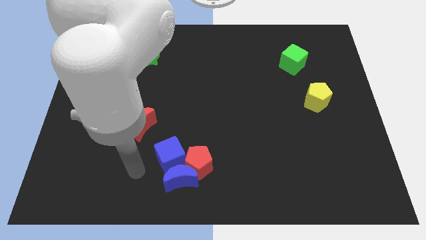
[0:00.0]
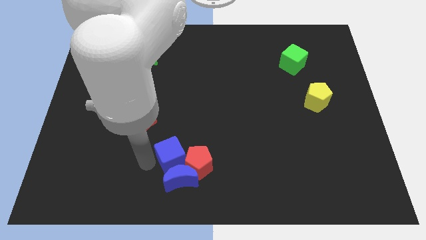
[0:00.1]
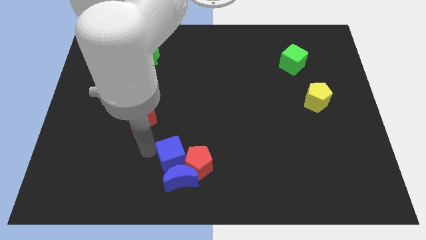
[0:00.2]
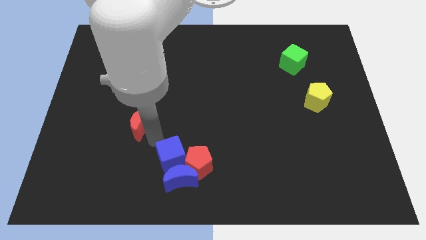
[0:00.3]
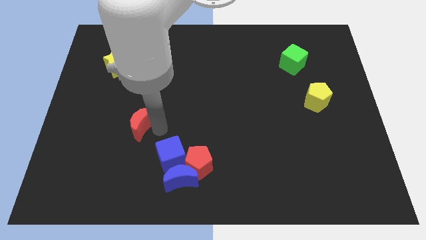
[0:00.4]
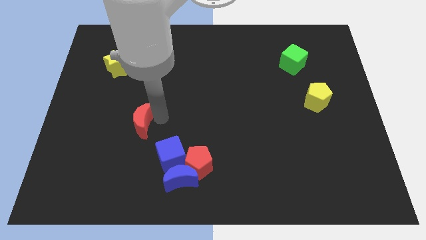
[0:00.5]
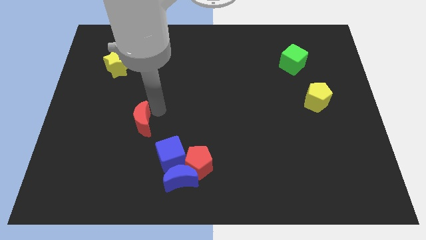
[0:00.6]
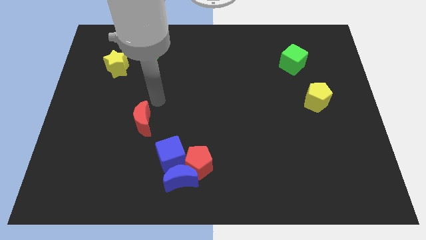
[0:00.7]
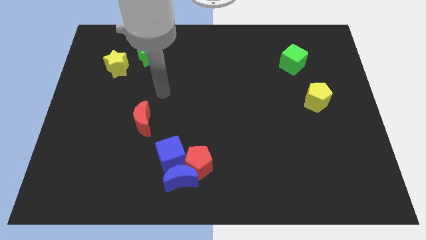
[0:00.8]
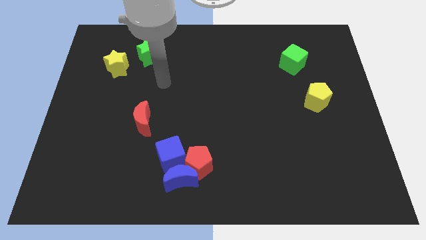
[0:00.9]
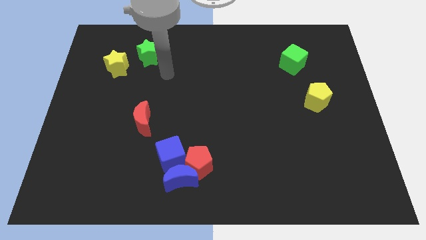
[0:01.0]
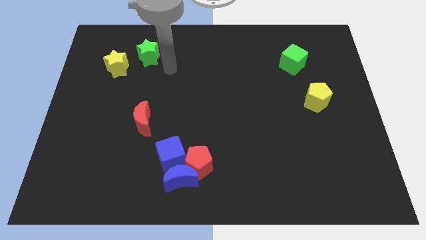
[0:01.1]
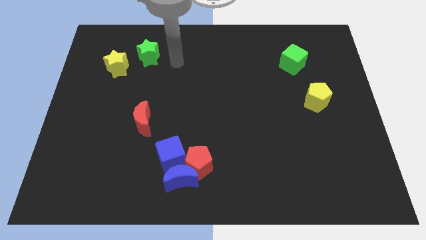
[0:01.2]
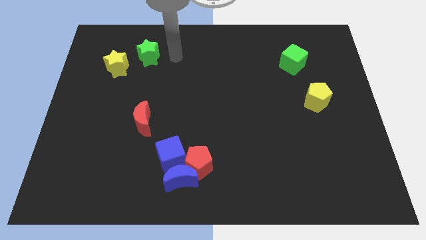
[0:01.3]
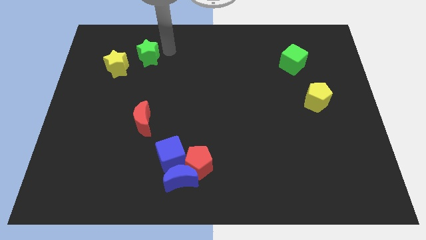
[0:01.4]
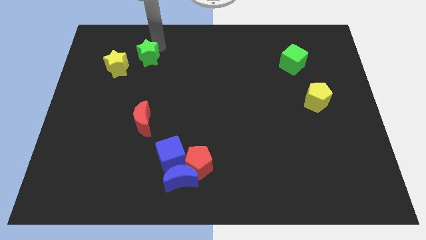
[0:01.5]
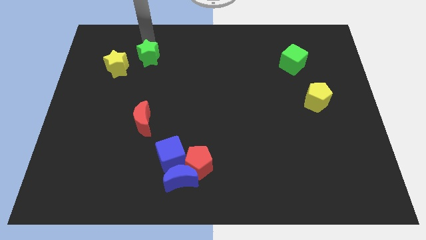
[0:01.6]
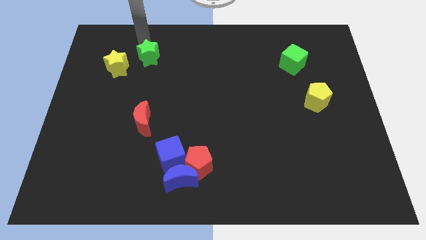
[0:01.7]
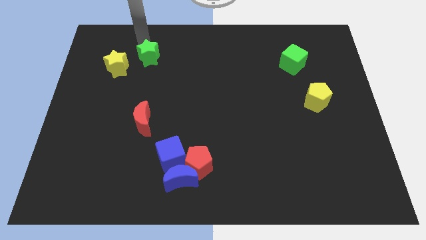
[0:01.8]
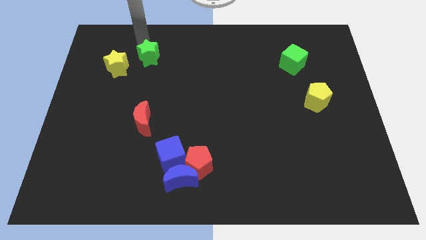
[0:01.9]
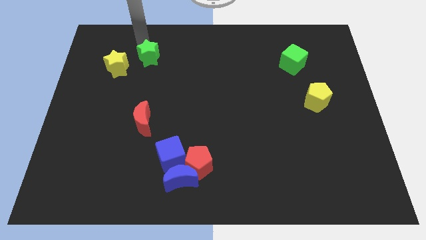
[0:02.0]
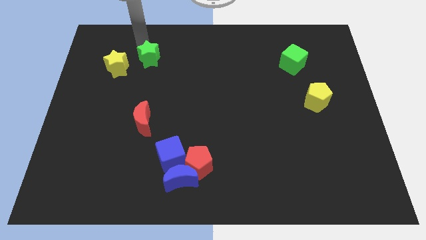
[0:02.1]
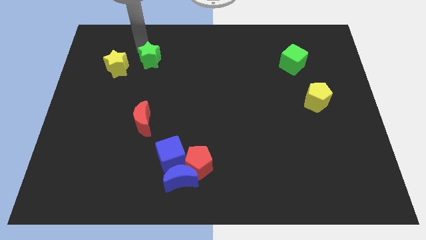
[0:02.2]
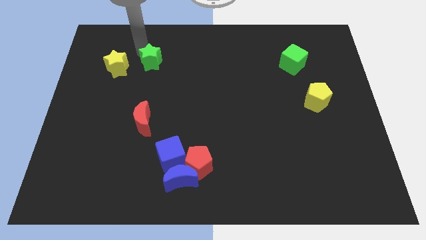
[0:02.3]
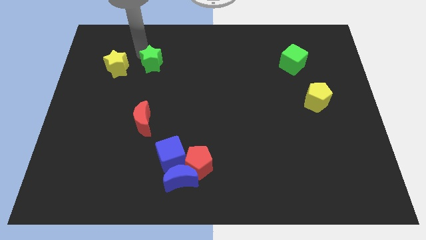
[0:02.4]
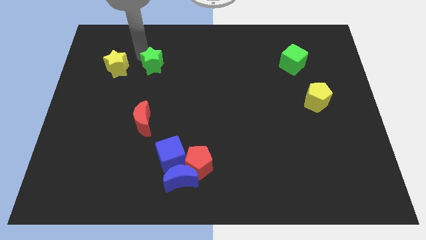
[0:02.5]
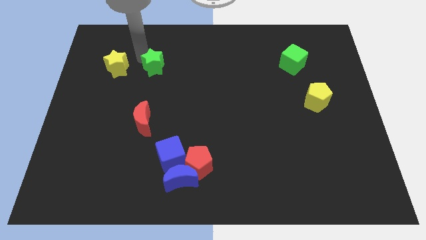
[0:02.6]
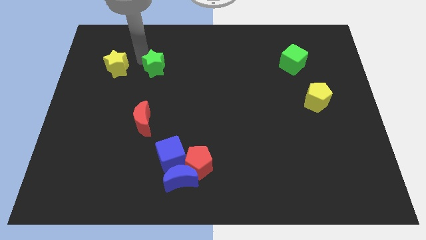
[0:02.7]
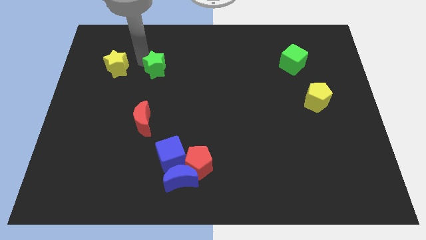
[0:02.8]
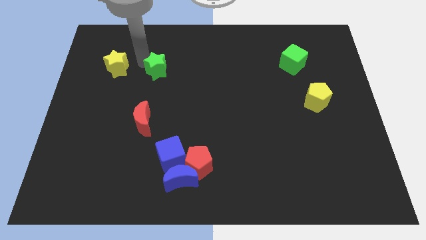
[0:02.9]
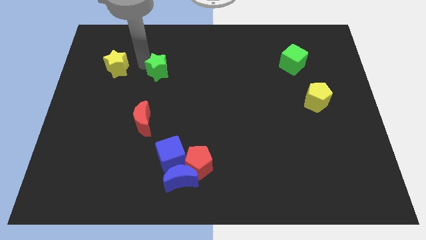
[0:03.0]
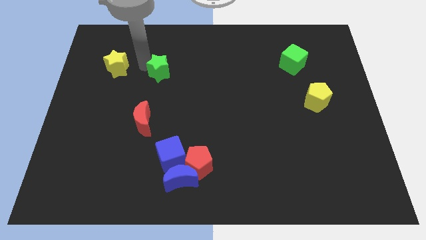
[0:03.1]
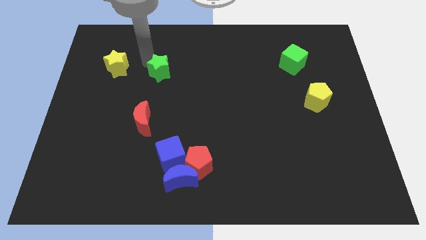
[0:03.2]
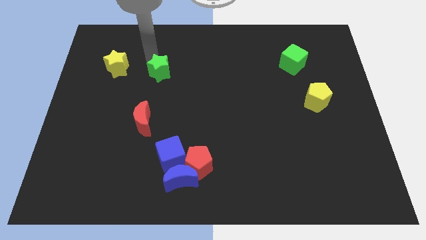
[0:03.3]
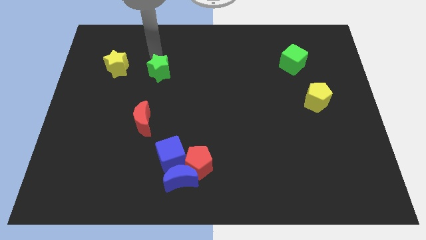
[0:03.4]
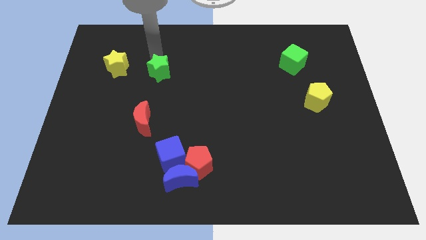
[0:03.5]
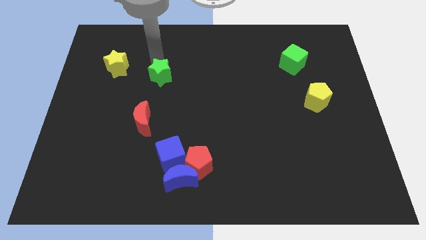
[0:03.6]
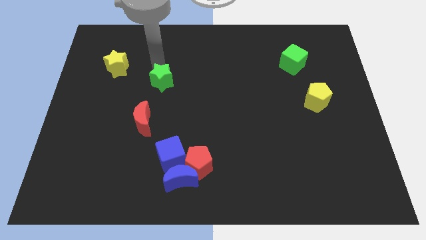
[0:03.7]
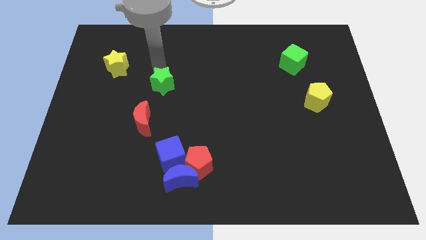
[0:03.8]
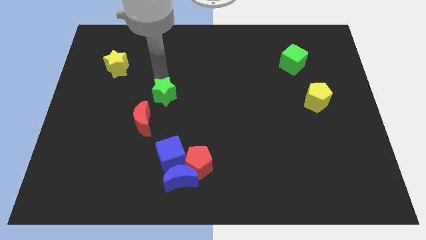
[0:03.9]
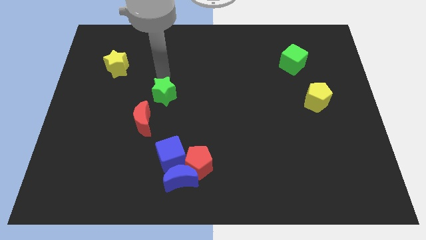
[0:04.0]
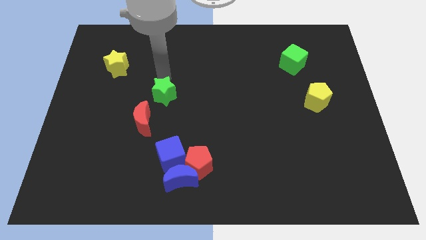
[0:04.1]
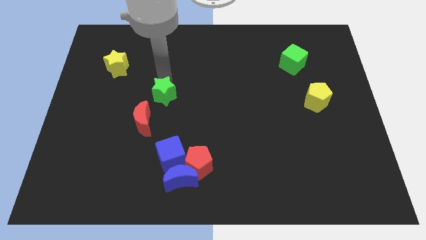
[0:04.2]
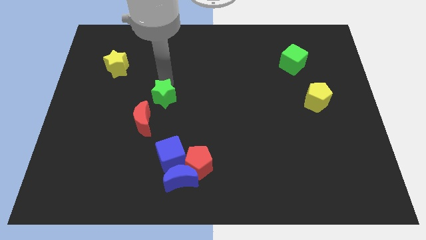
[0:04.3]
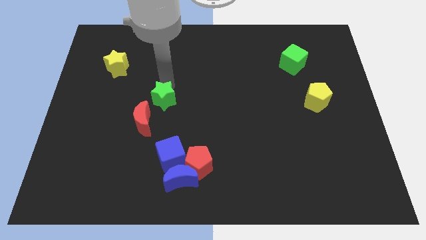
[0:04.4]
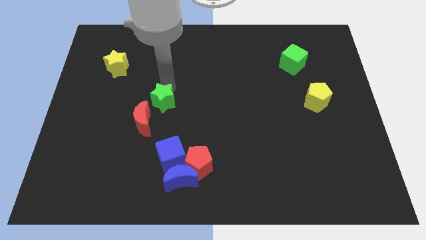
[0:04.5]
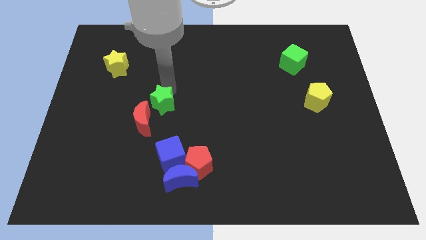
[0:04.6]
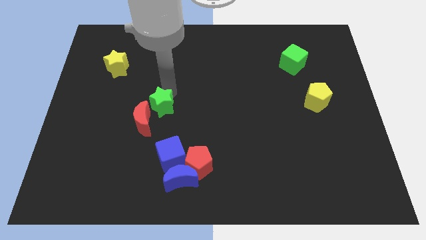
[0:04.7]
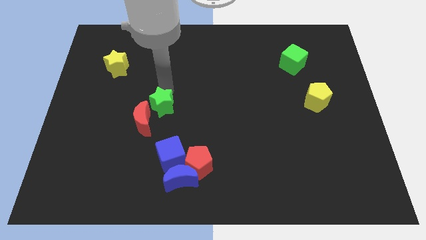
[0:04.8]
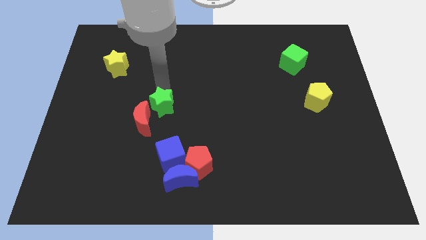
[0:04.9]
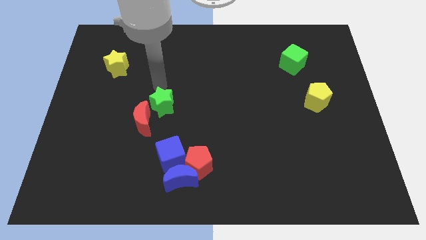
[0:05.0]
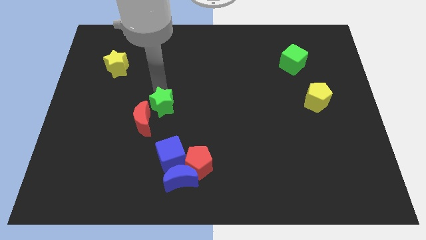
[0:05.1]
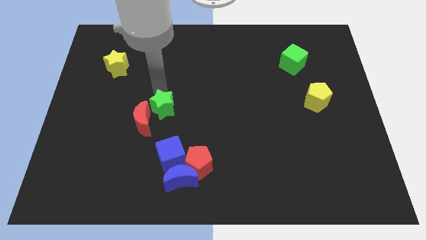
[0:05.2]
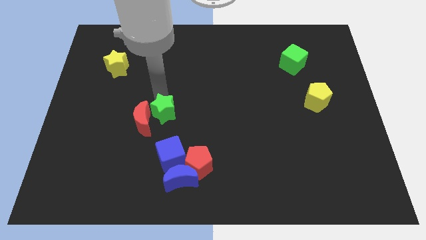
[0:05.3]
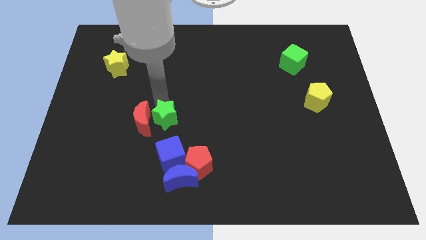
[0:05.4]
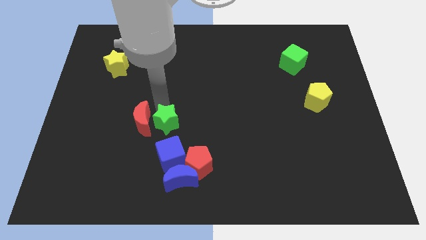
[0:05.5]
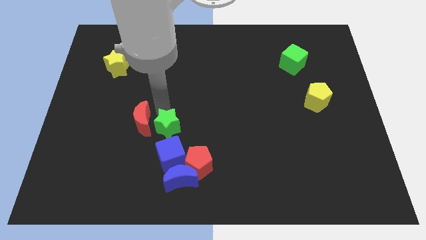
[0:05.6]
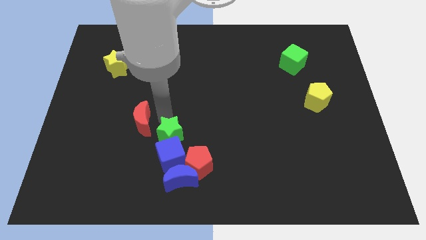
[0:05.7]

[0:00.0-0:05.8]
put the green star towards the blue cube

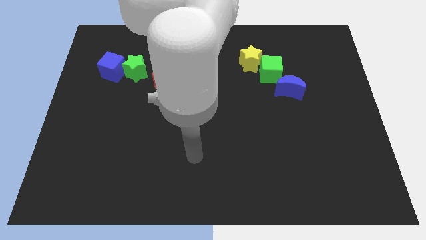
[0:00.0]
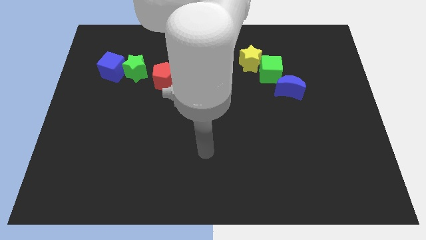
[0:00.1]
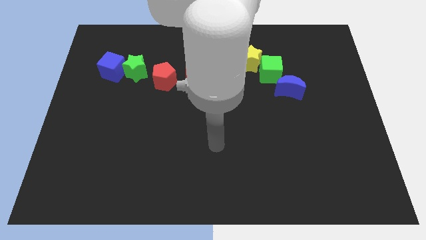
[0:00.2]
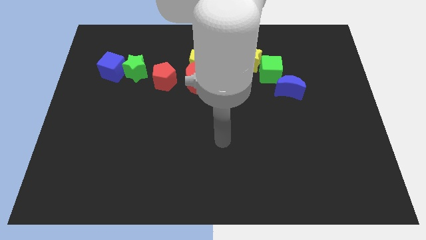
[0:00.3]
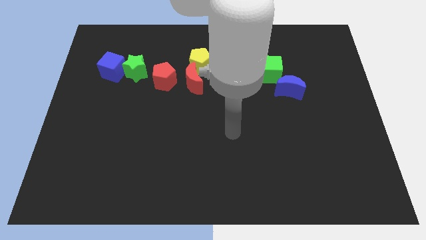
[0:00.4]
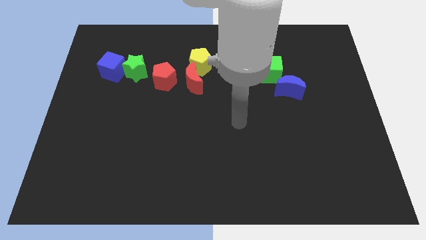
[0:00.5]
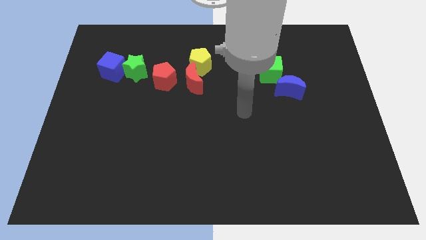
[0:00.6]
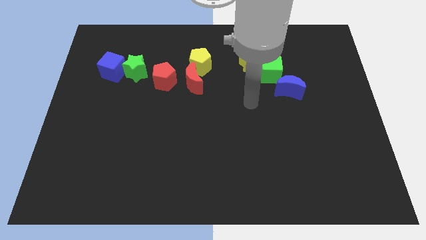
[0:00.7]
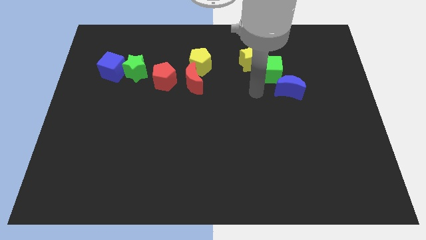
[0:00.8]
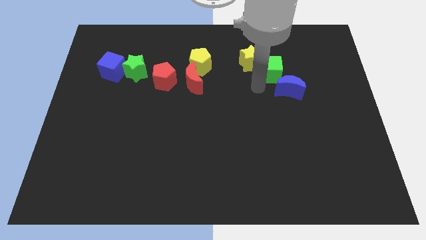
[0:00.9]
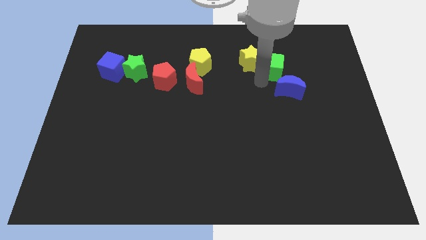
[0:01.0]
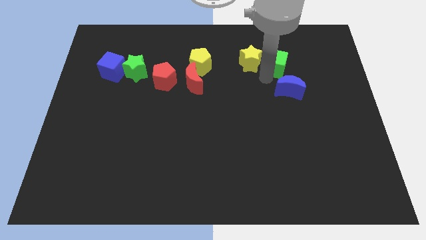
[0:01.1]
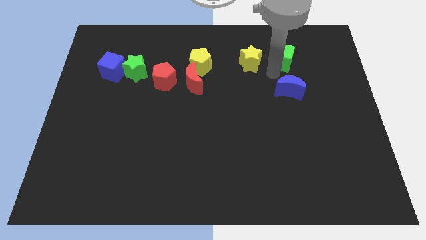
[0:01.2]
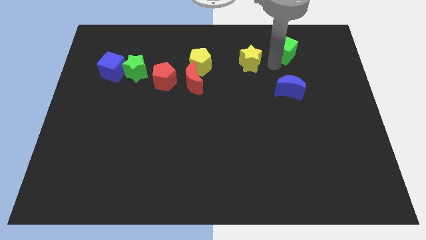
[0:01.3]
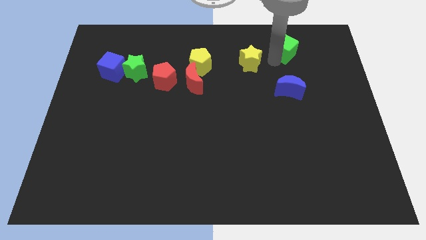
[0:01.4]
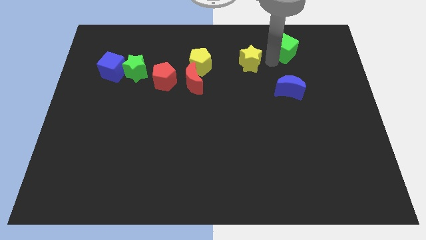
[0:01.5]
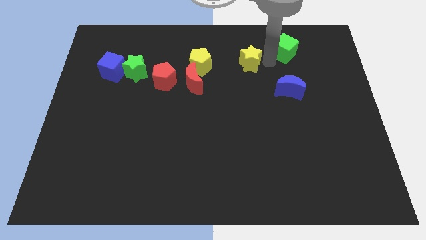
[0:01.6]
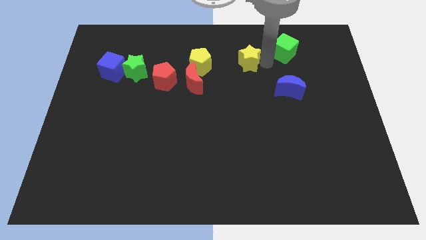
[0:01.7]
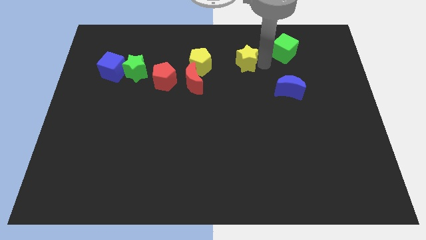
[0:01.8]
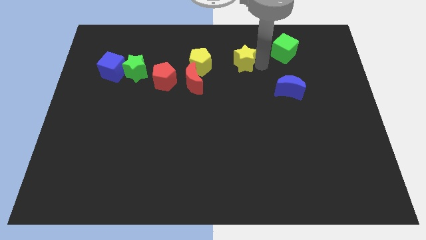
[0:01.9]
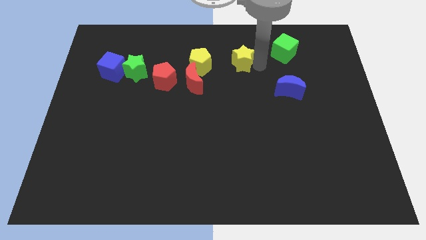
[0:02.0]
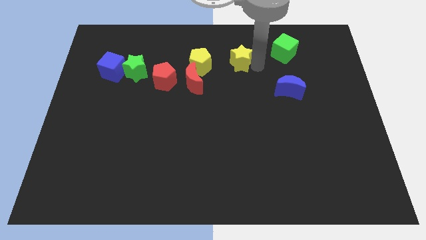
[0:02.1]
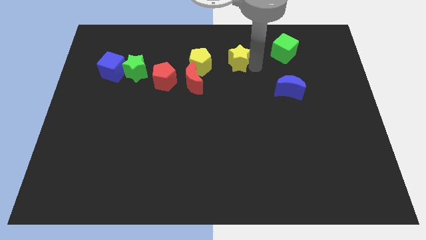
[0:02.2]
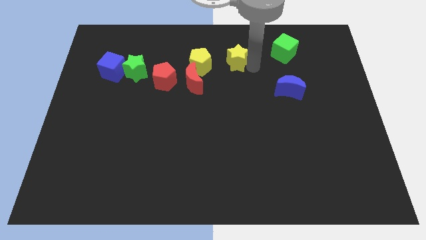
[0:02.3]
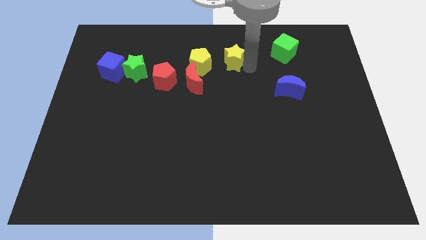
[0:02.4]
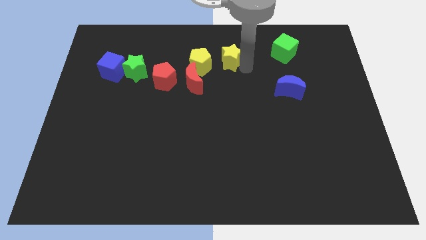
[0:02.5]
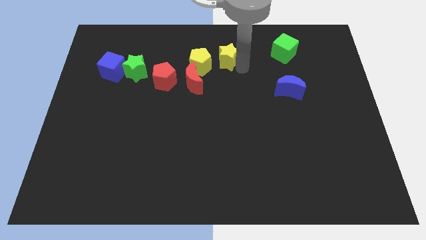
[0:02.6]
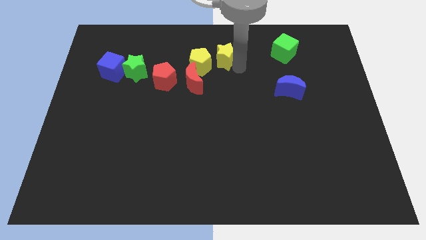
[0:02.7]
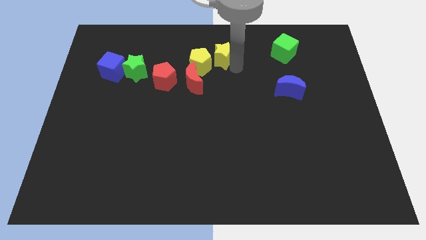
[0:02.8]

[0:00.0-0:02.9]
push the yellow star next to the yellow pentagon
